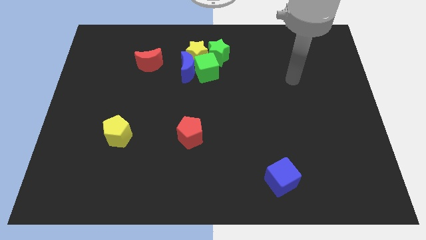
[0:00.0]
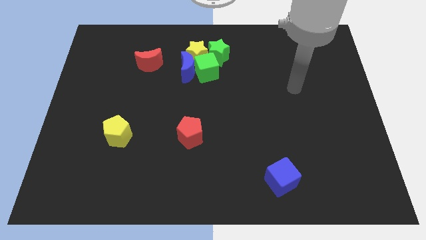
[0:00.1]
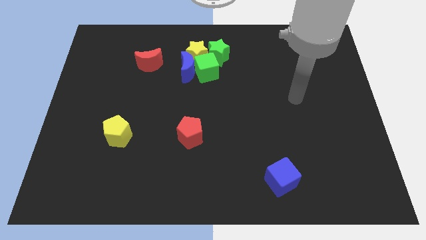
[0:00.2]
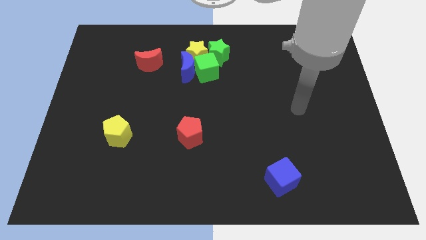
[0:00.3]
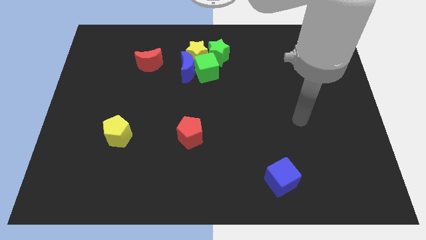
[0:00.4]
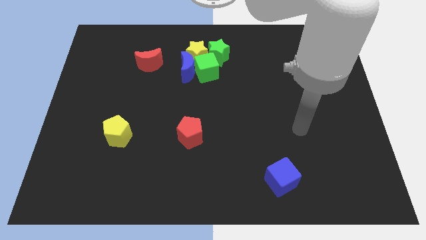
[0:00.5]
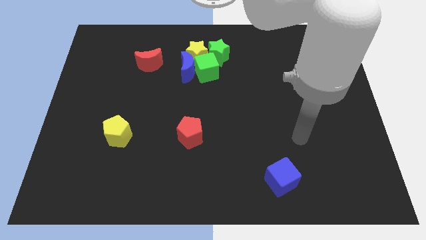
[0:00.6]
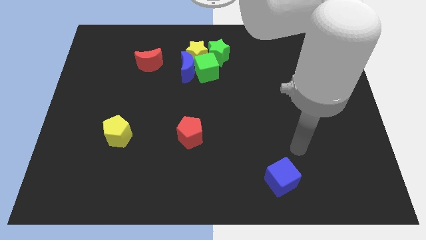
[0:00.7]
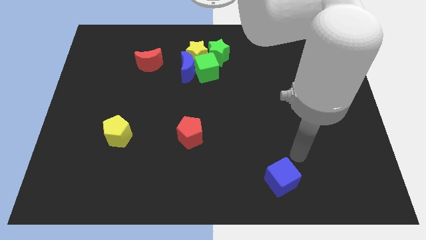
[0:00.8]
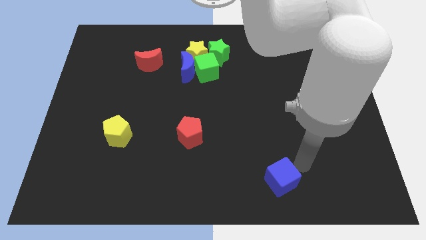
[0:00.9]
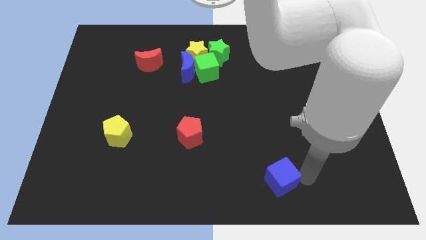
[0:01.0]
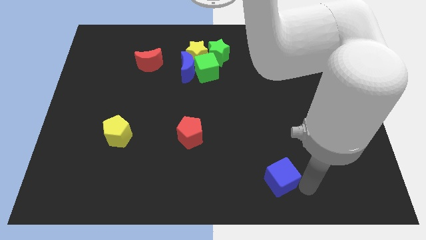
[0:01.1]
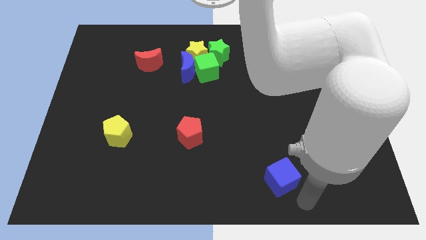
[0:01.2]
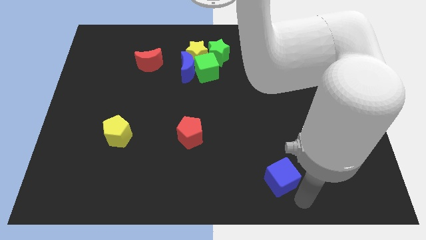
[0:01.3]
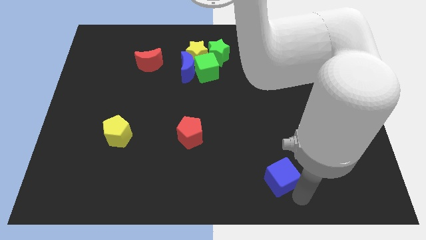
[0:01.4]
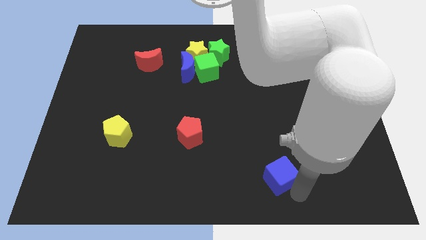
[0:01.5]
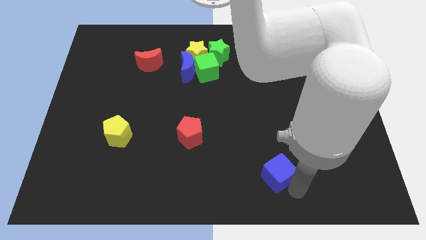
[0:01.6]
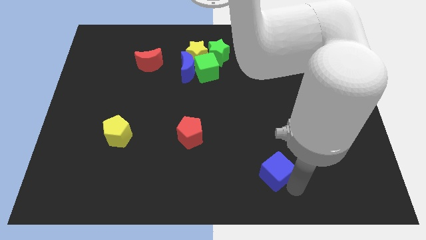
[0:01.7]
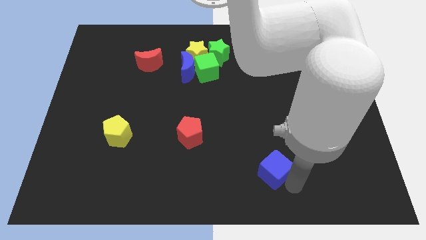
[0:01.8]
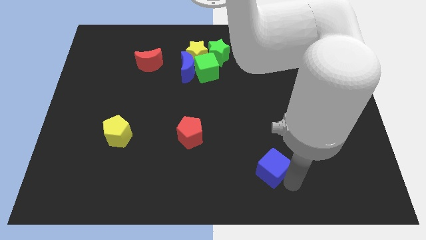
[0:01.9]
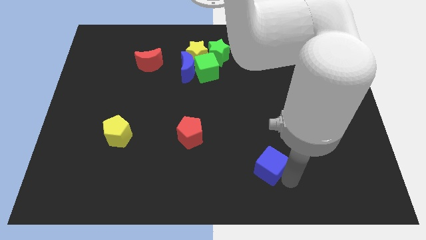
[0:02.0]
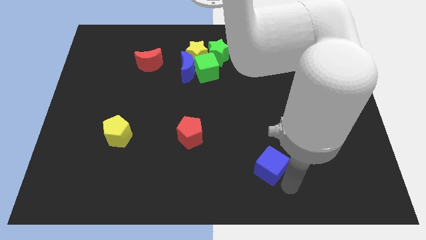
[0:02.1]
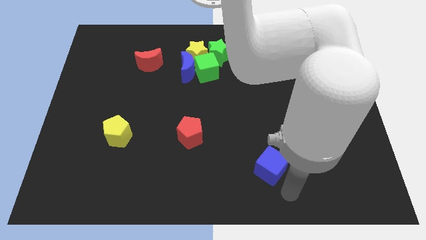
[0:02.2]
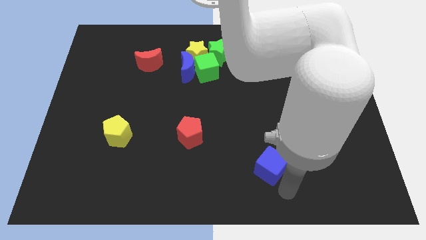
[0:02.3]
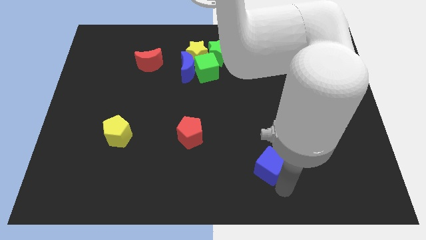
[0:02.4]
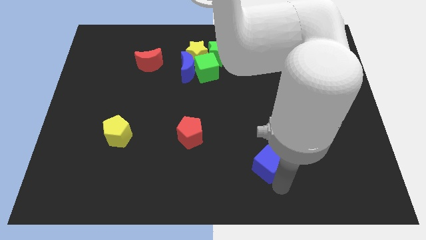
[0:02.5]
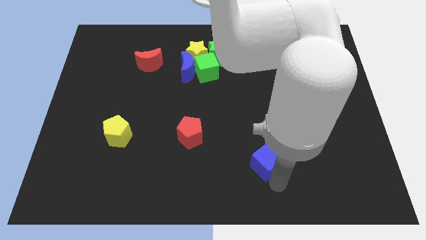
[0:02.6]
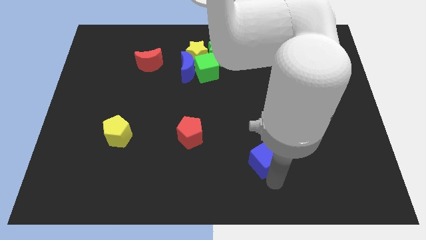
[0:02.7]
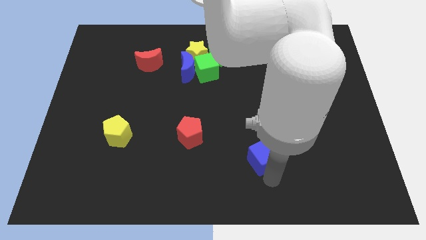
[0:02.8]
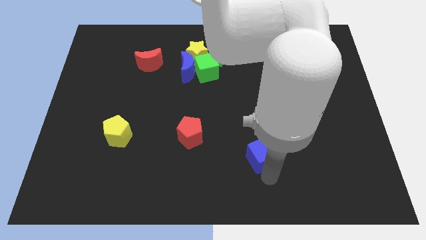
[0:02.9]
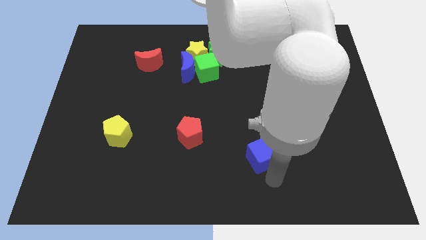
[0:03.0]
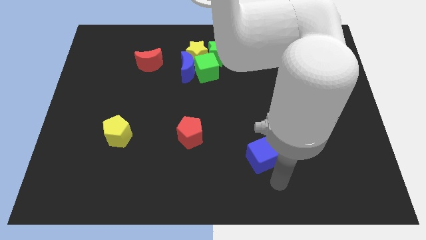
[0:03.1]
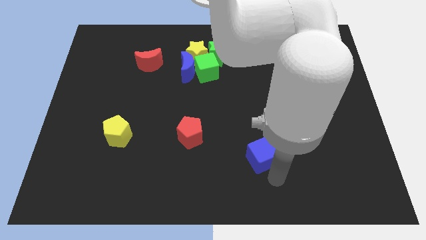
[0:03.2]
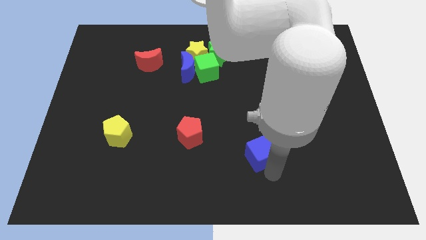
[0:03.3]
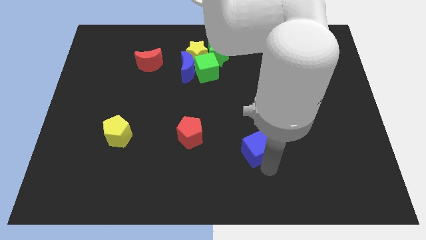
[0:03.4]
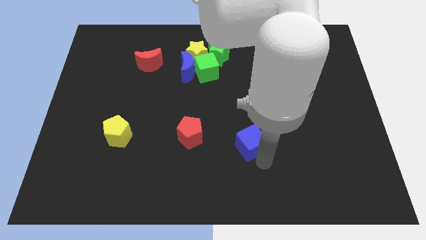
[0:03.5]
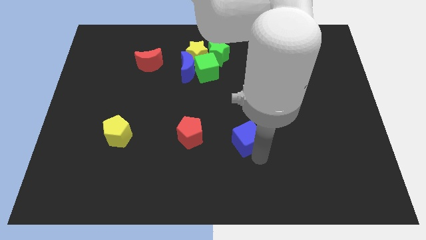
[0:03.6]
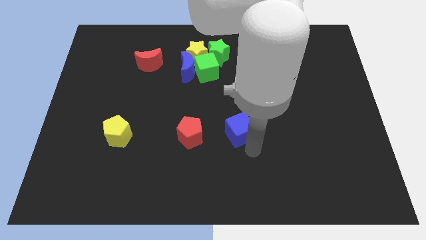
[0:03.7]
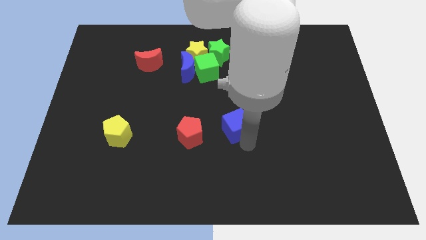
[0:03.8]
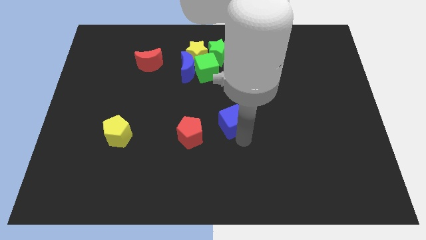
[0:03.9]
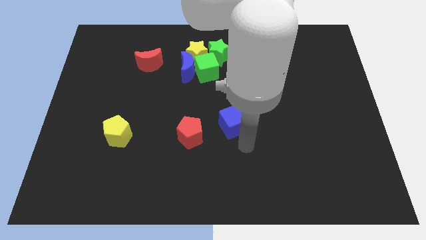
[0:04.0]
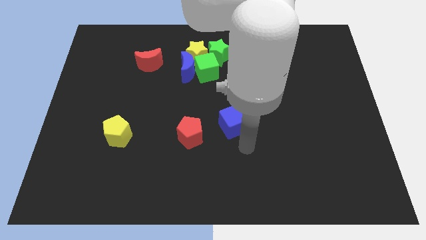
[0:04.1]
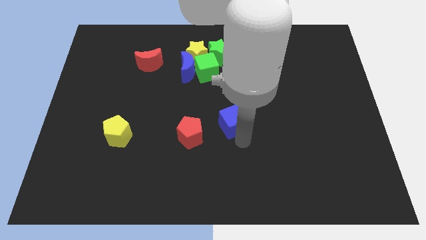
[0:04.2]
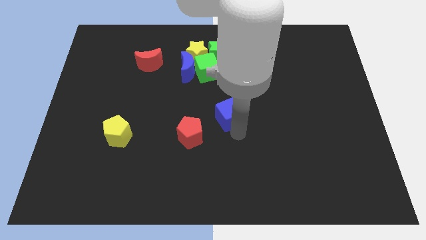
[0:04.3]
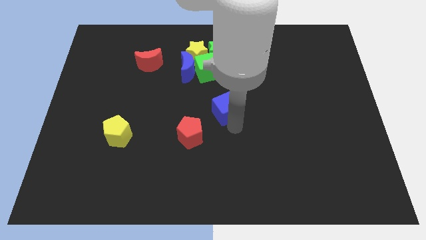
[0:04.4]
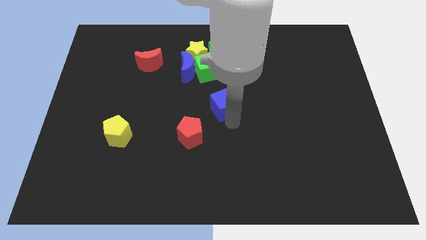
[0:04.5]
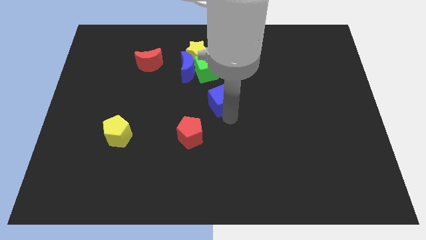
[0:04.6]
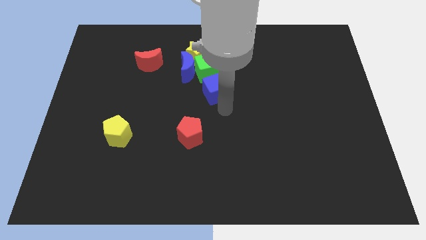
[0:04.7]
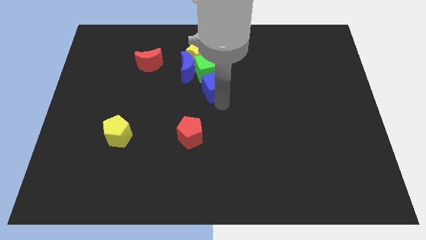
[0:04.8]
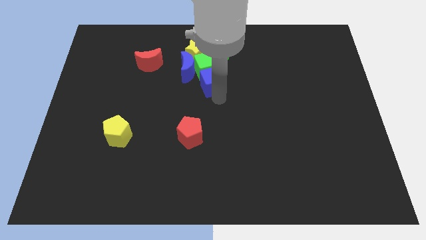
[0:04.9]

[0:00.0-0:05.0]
move the blue cube next to the green cube

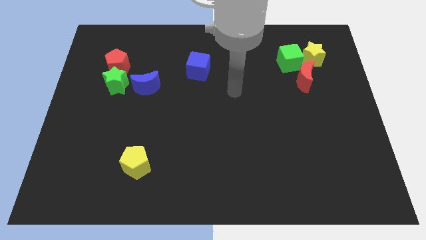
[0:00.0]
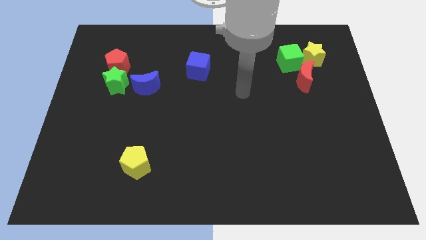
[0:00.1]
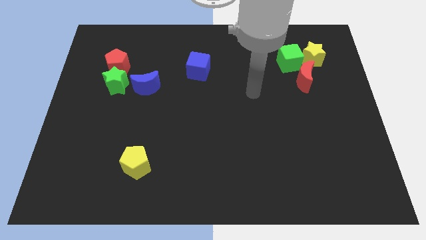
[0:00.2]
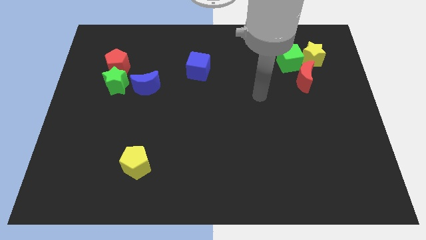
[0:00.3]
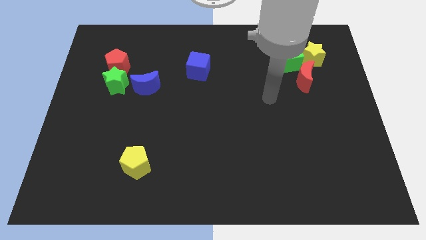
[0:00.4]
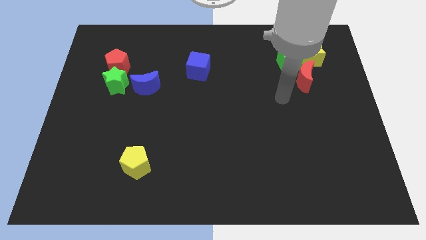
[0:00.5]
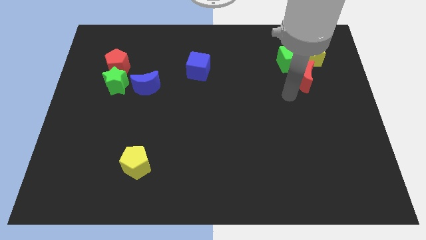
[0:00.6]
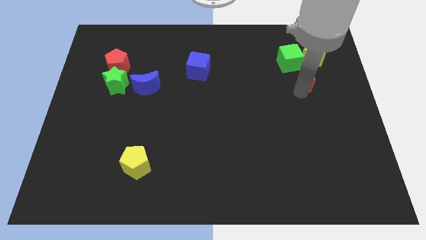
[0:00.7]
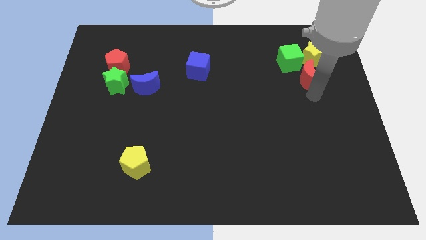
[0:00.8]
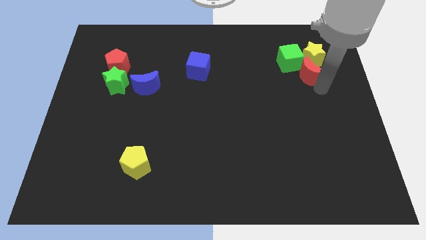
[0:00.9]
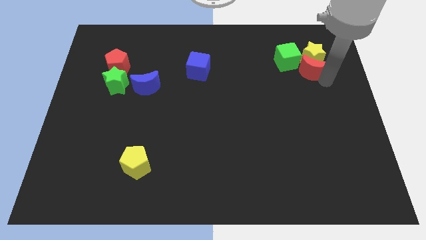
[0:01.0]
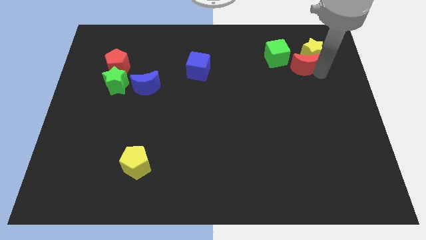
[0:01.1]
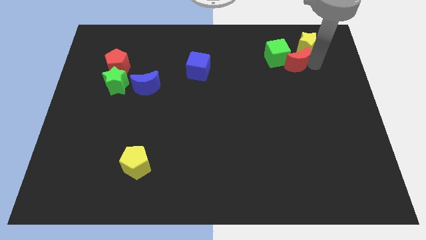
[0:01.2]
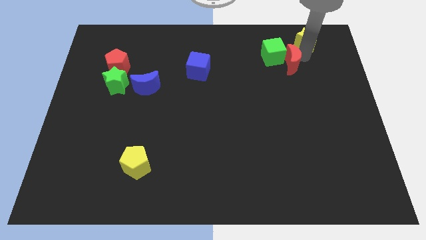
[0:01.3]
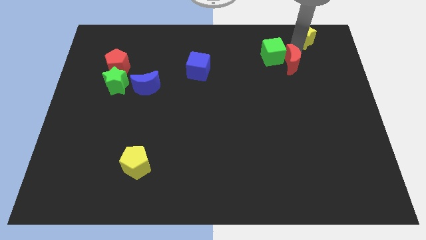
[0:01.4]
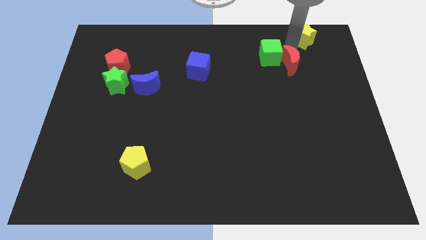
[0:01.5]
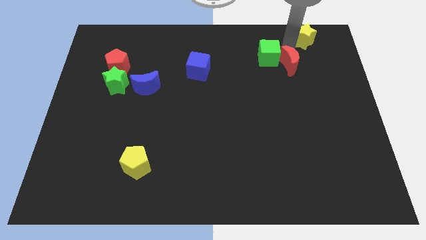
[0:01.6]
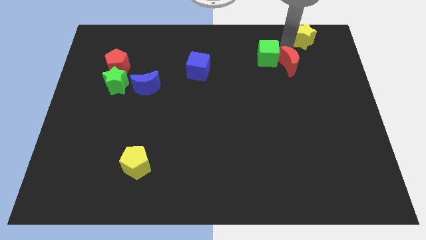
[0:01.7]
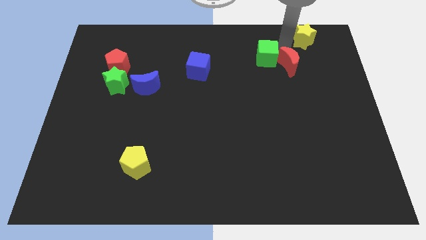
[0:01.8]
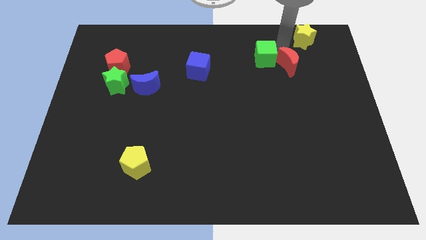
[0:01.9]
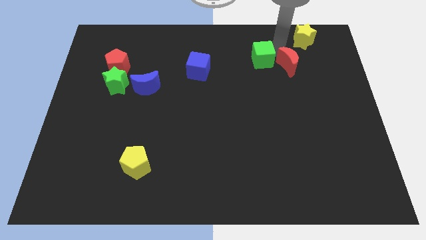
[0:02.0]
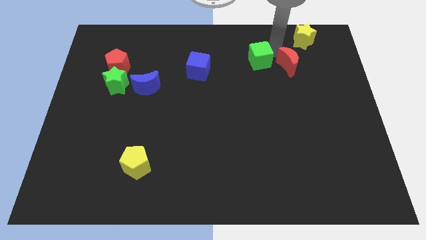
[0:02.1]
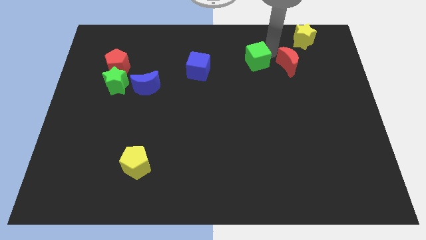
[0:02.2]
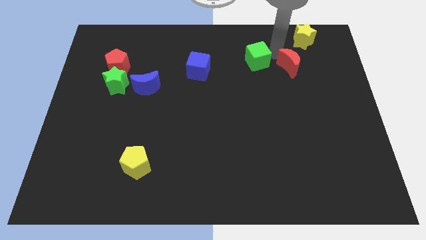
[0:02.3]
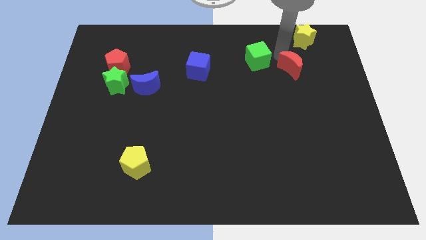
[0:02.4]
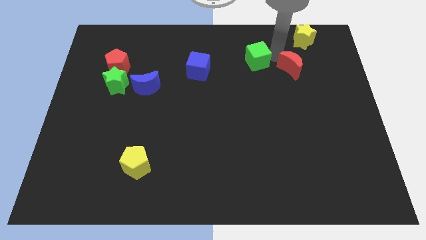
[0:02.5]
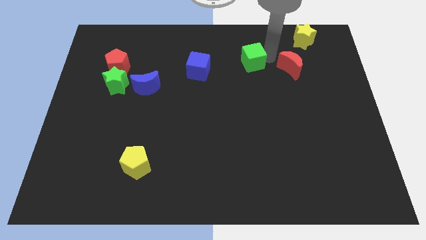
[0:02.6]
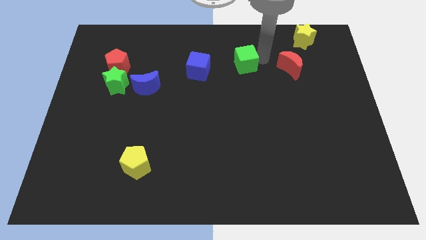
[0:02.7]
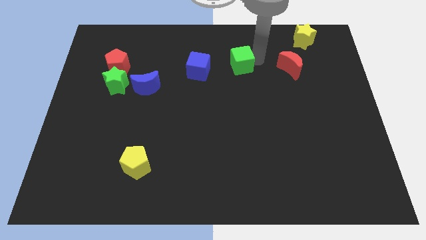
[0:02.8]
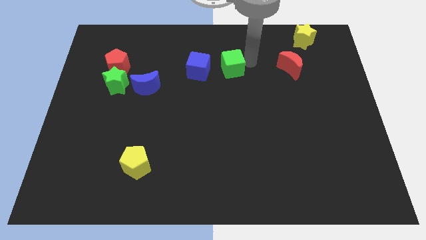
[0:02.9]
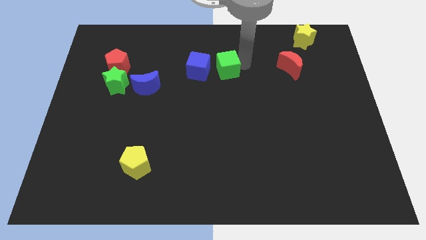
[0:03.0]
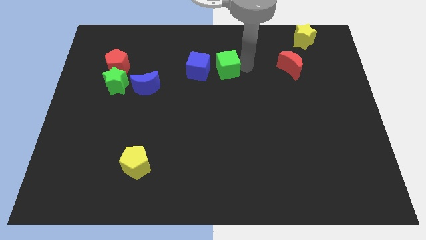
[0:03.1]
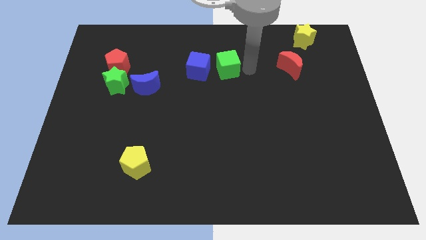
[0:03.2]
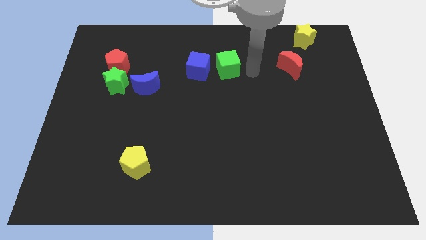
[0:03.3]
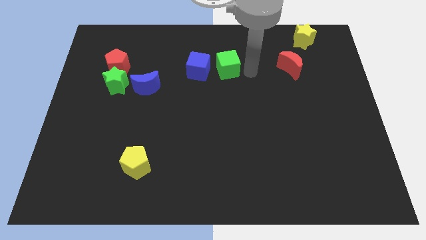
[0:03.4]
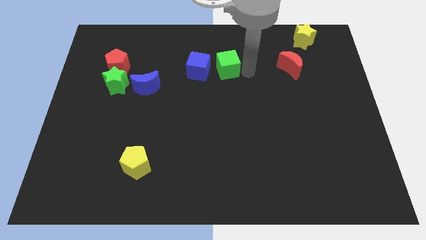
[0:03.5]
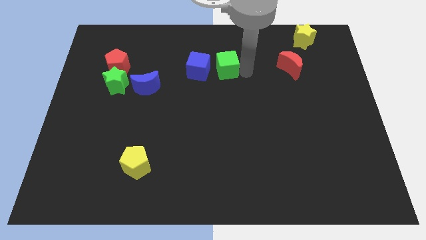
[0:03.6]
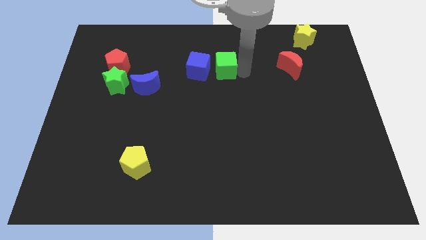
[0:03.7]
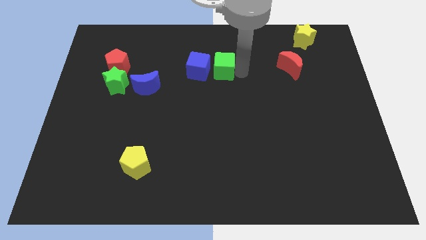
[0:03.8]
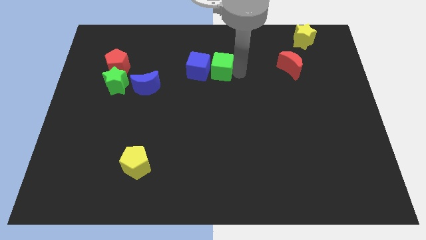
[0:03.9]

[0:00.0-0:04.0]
put the green cube to the blue cube
